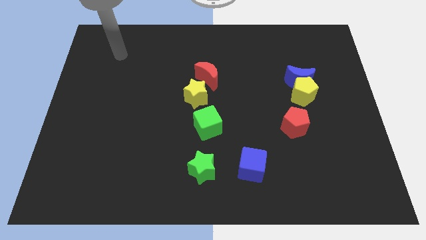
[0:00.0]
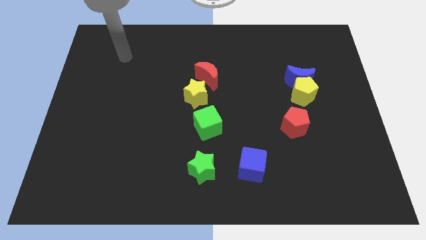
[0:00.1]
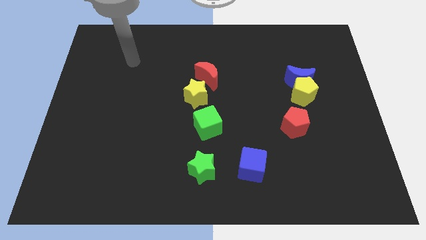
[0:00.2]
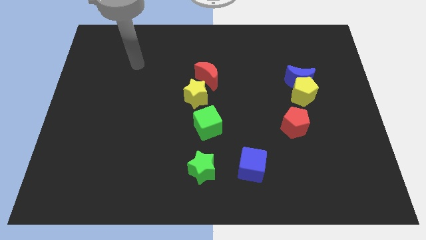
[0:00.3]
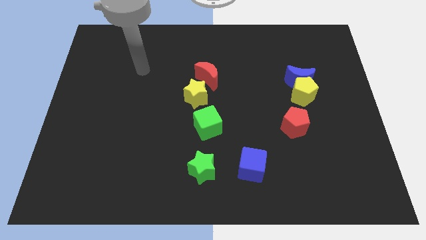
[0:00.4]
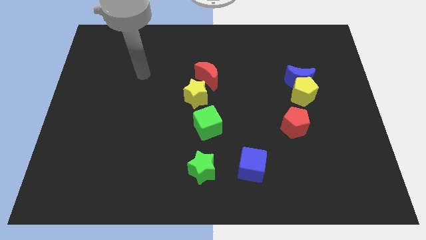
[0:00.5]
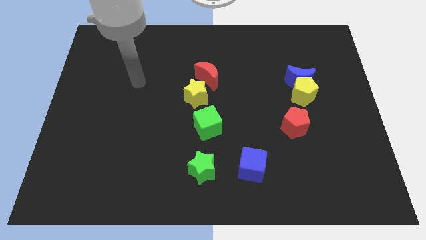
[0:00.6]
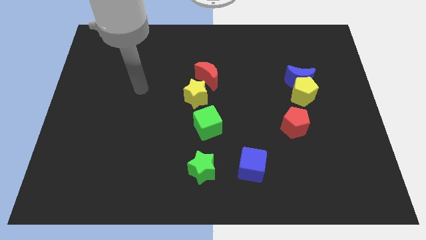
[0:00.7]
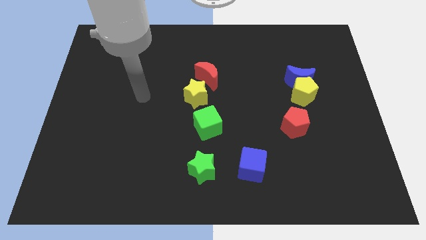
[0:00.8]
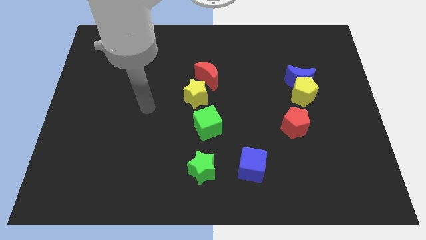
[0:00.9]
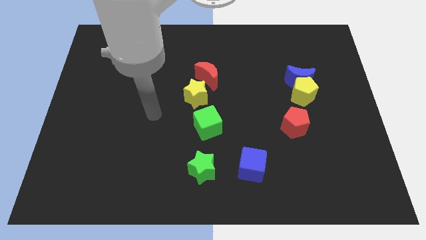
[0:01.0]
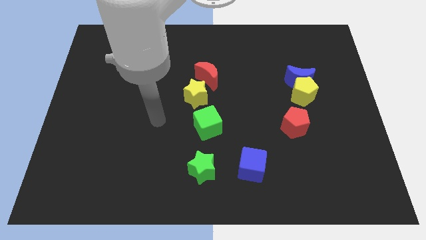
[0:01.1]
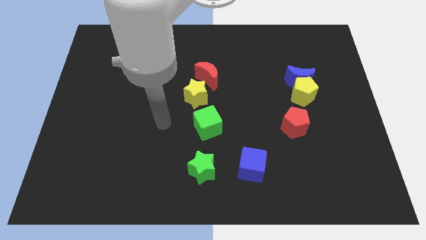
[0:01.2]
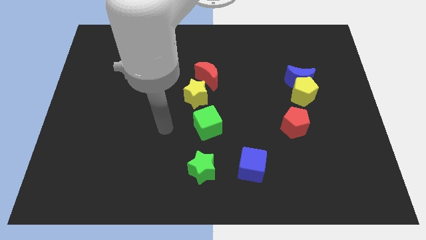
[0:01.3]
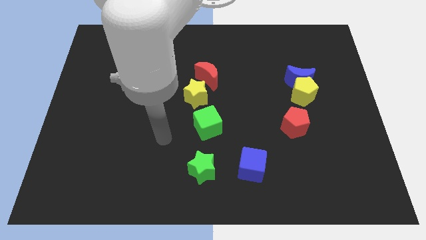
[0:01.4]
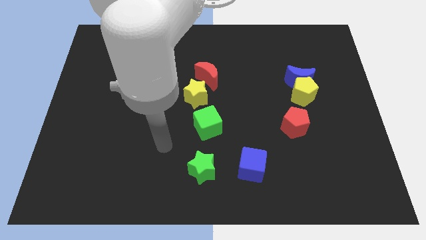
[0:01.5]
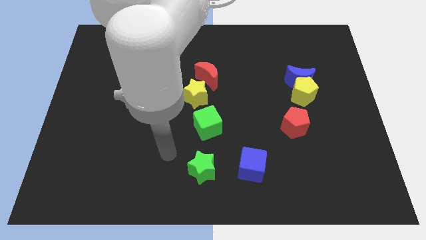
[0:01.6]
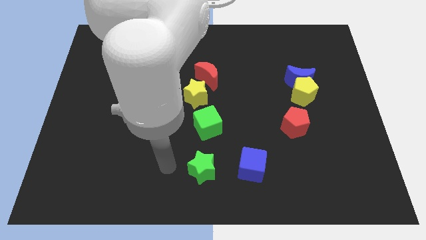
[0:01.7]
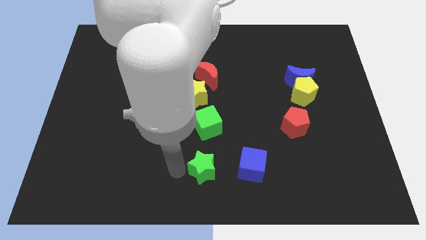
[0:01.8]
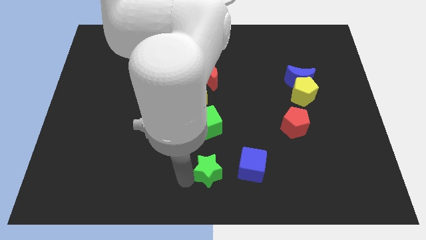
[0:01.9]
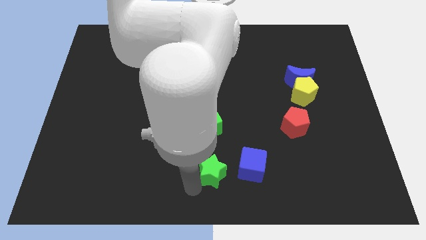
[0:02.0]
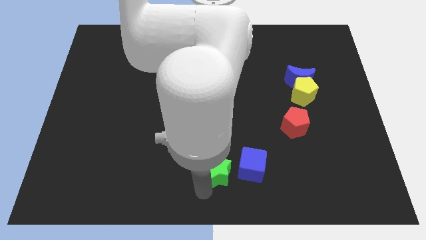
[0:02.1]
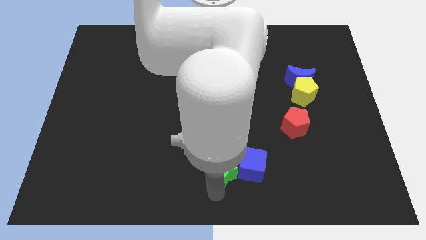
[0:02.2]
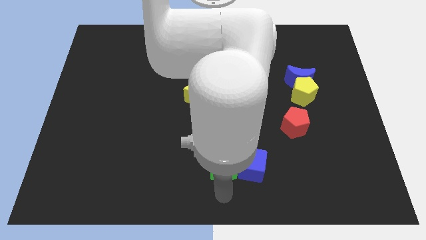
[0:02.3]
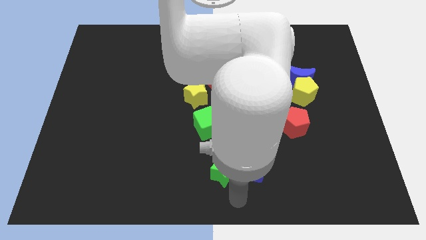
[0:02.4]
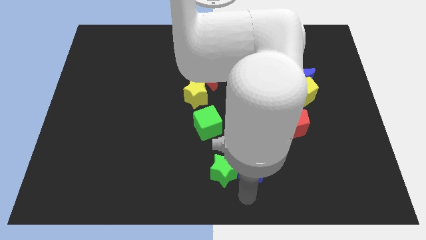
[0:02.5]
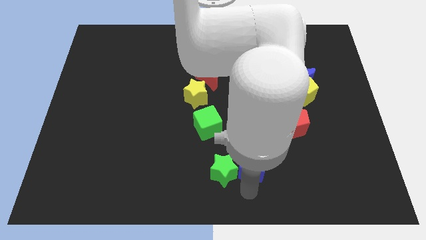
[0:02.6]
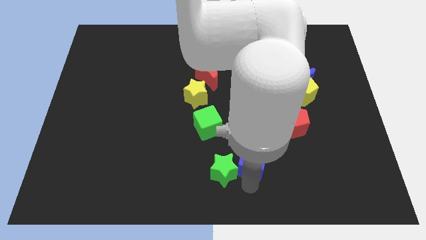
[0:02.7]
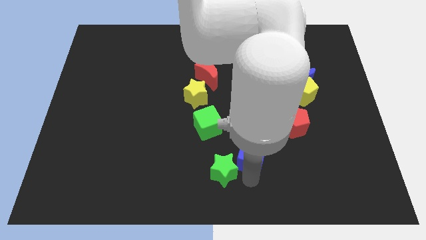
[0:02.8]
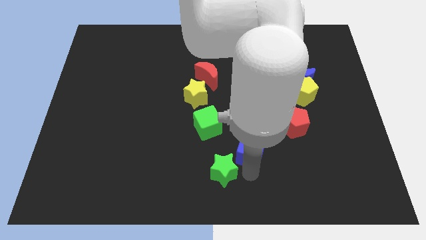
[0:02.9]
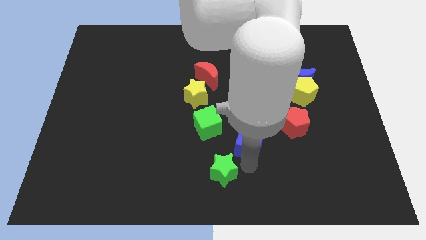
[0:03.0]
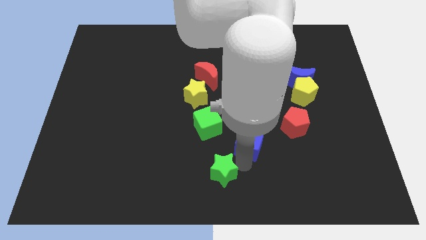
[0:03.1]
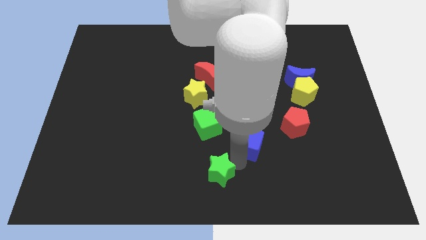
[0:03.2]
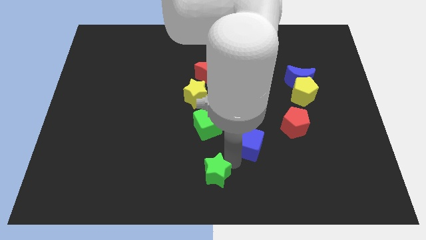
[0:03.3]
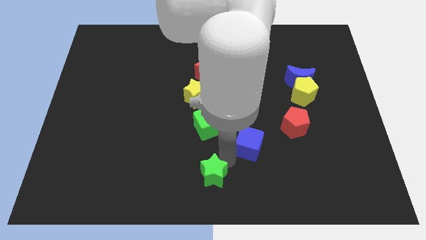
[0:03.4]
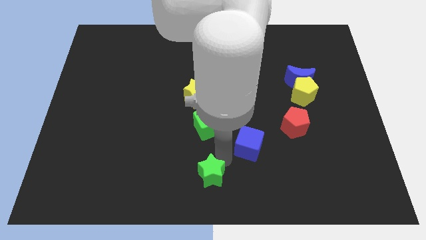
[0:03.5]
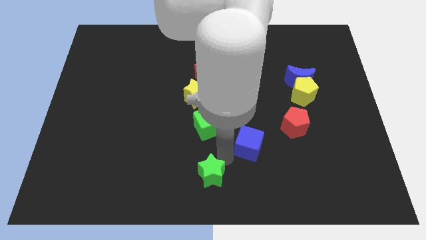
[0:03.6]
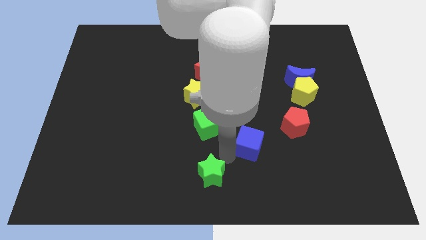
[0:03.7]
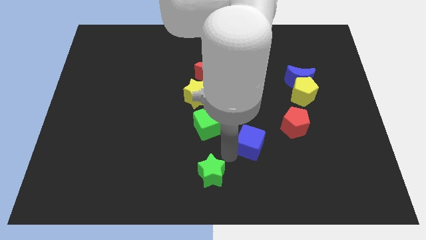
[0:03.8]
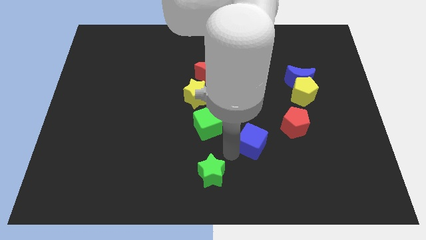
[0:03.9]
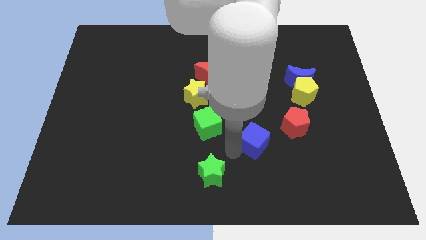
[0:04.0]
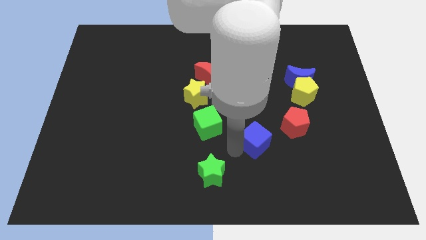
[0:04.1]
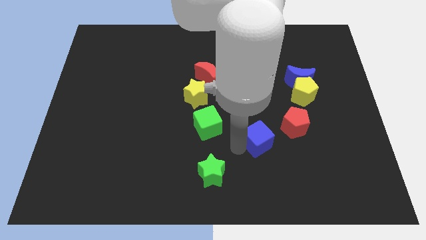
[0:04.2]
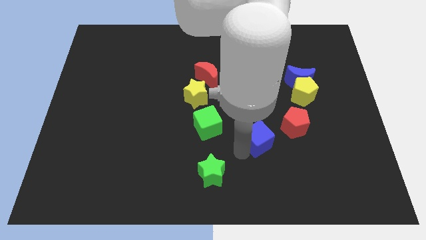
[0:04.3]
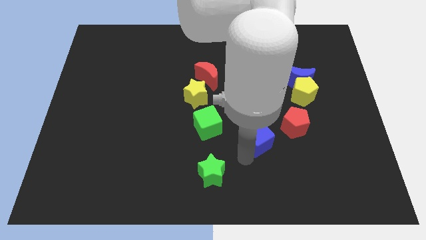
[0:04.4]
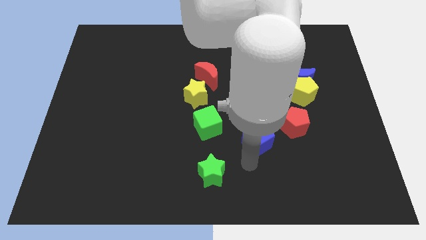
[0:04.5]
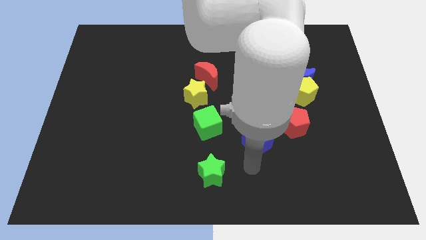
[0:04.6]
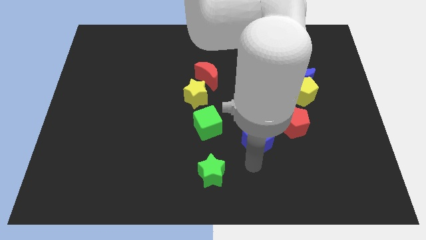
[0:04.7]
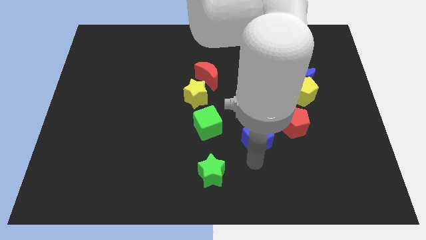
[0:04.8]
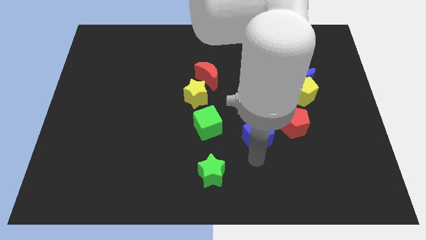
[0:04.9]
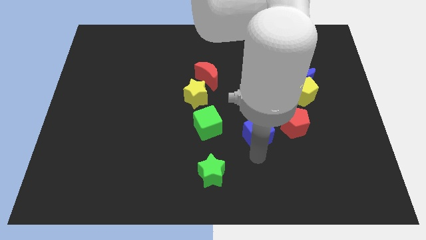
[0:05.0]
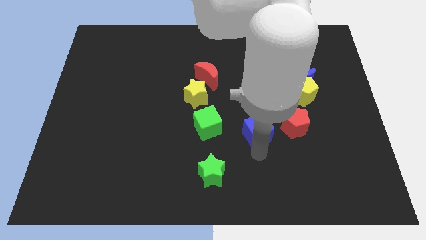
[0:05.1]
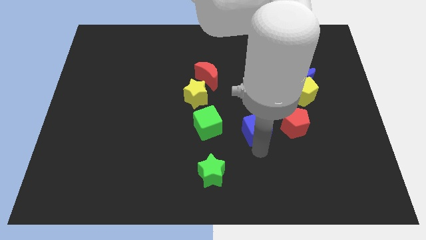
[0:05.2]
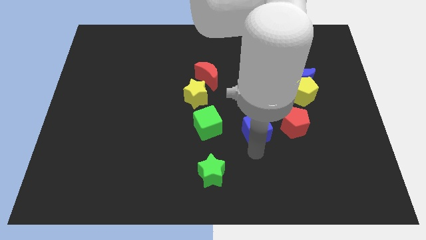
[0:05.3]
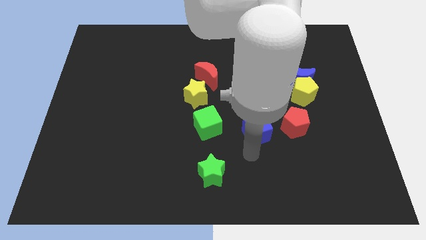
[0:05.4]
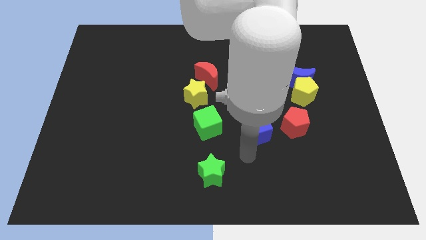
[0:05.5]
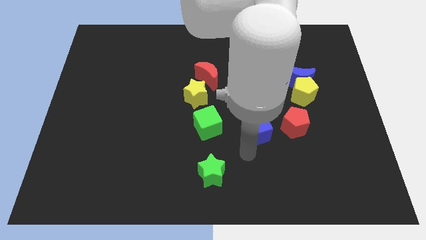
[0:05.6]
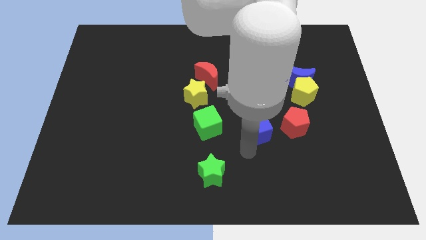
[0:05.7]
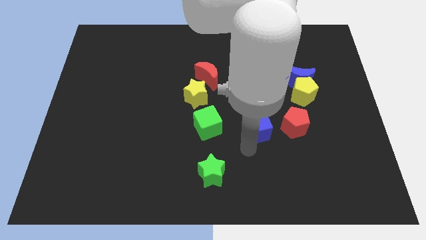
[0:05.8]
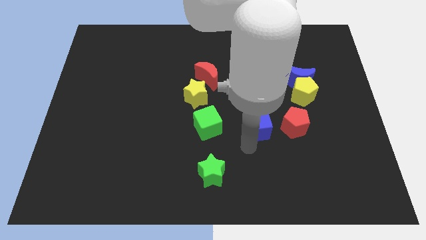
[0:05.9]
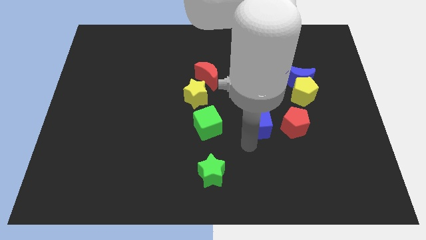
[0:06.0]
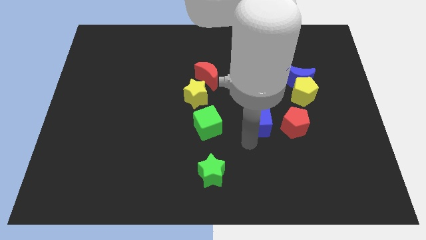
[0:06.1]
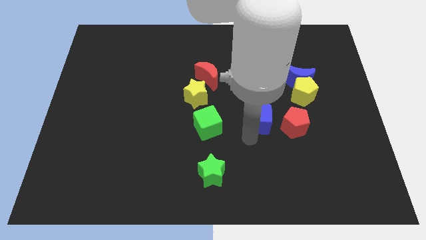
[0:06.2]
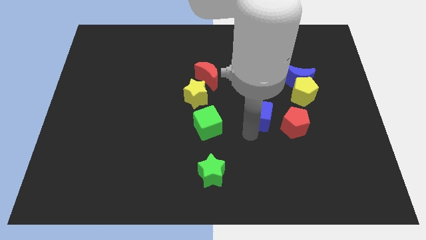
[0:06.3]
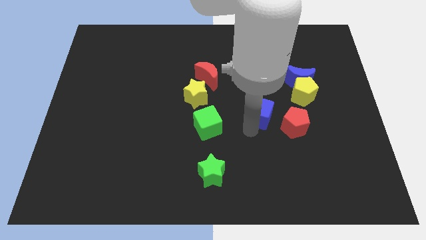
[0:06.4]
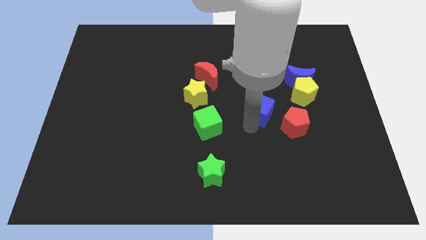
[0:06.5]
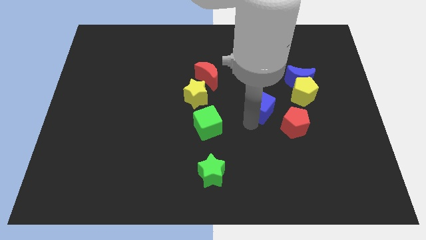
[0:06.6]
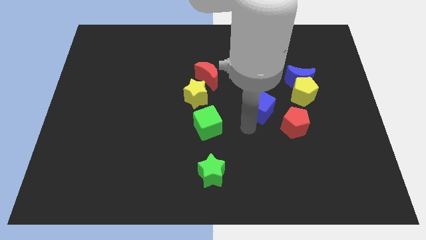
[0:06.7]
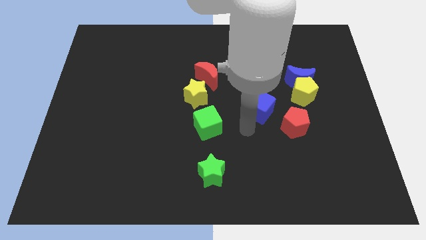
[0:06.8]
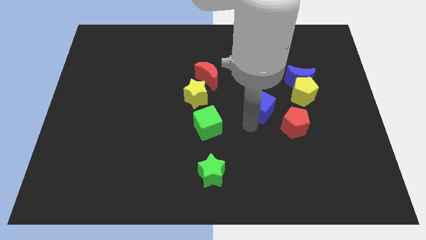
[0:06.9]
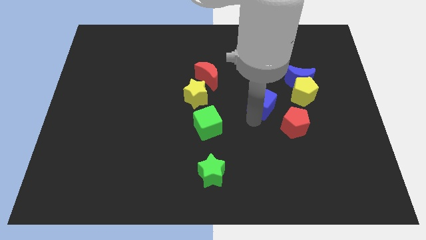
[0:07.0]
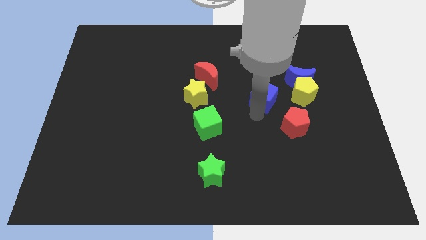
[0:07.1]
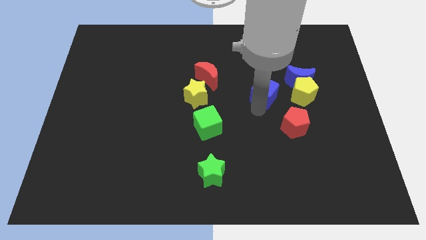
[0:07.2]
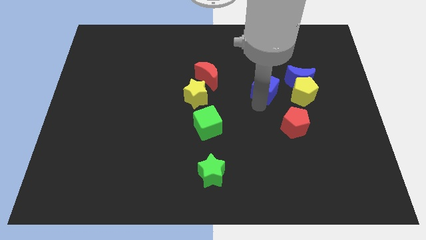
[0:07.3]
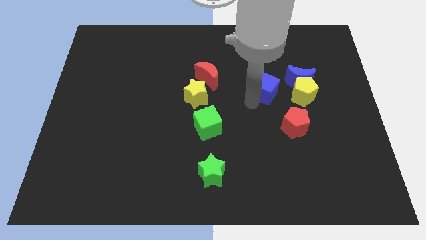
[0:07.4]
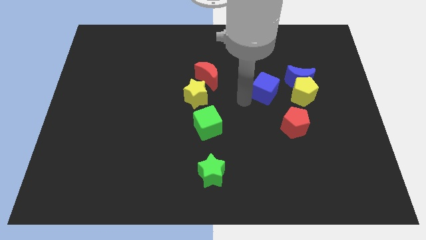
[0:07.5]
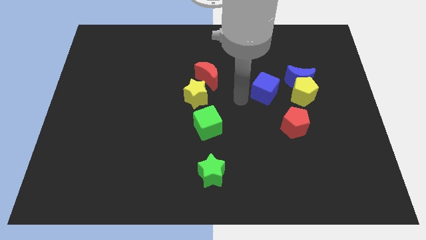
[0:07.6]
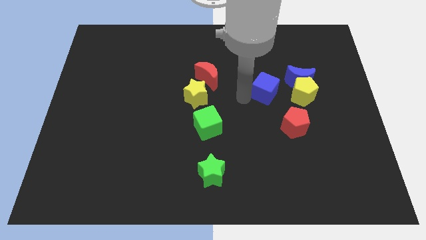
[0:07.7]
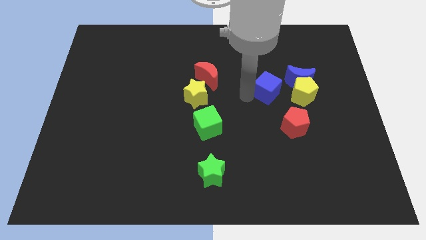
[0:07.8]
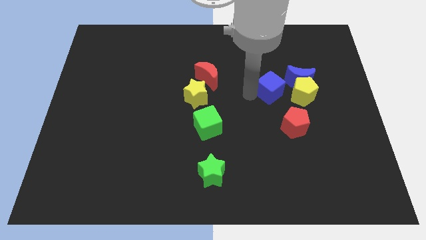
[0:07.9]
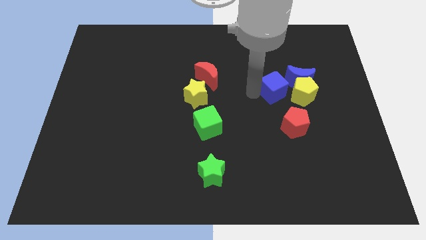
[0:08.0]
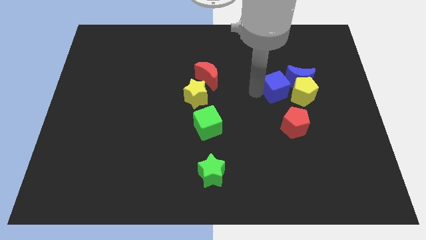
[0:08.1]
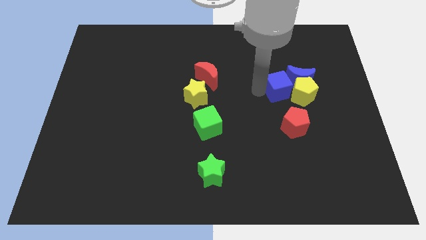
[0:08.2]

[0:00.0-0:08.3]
slide the blue cube to the blue moon
